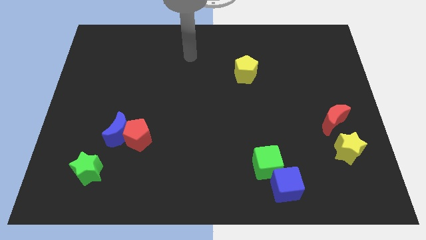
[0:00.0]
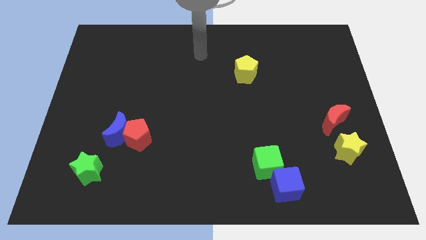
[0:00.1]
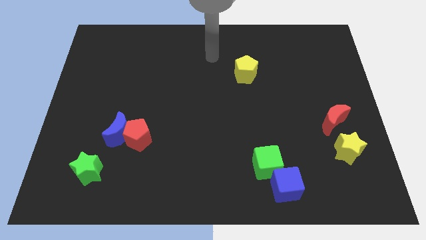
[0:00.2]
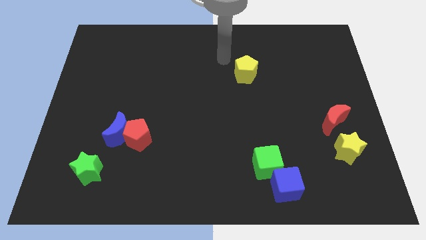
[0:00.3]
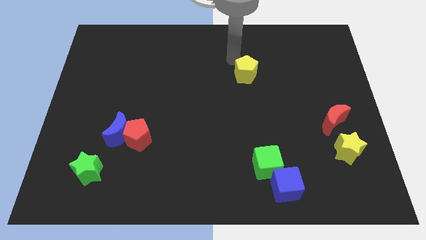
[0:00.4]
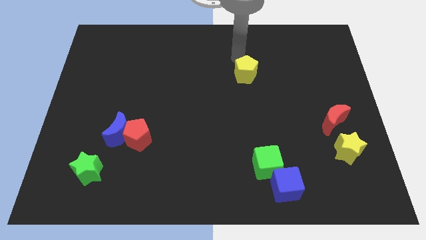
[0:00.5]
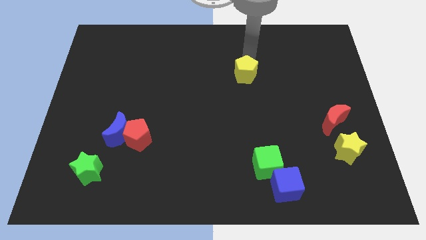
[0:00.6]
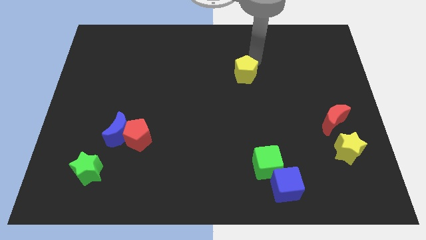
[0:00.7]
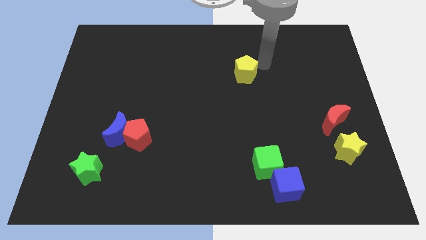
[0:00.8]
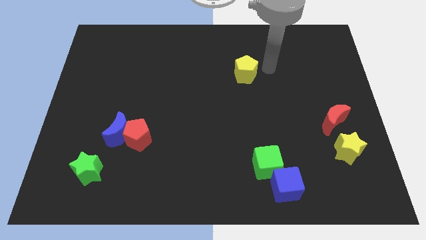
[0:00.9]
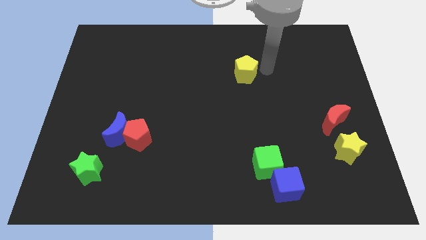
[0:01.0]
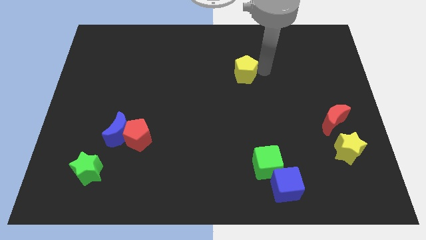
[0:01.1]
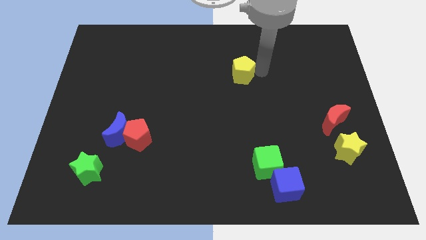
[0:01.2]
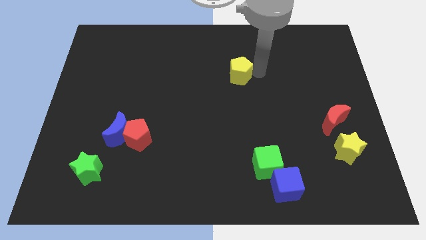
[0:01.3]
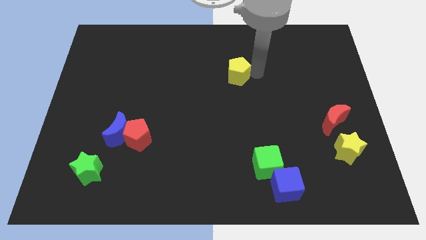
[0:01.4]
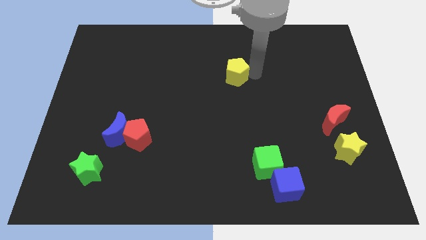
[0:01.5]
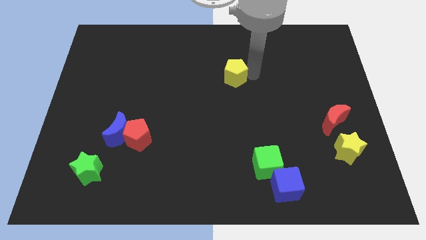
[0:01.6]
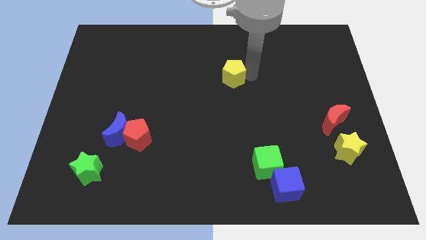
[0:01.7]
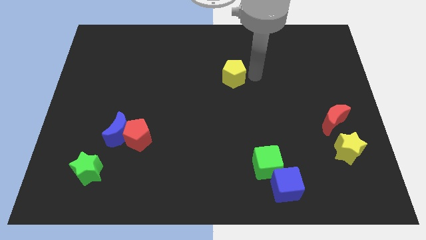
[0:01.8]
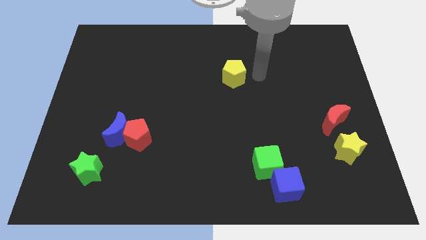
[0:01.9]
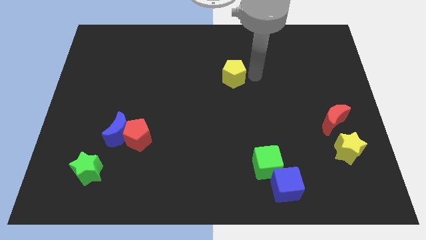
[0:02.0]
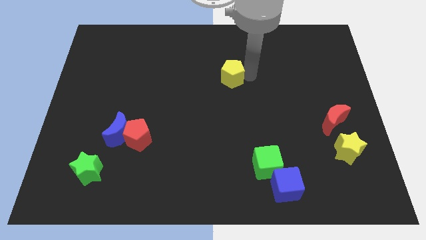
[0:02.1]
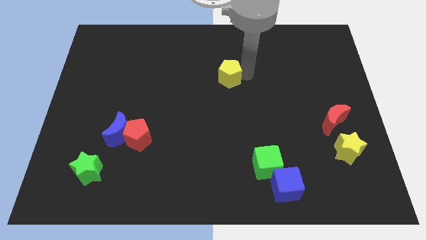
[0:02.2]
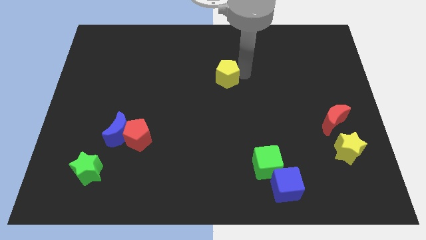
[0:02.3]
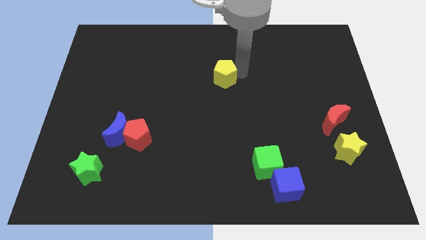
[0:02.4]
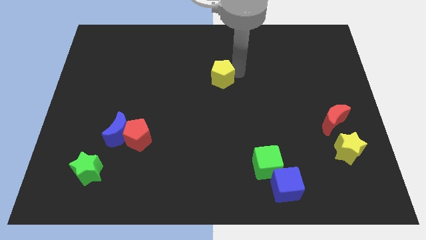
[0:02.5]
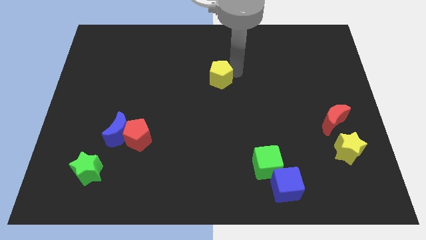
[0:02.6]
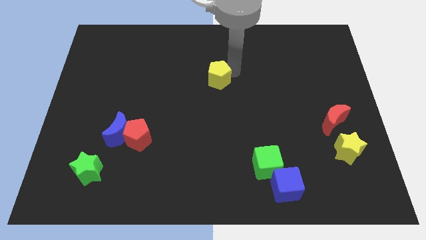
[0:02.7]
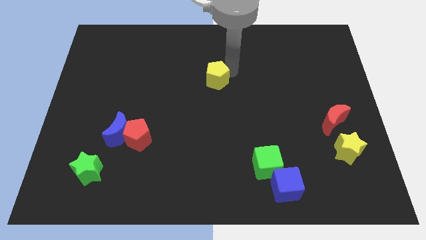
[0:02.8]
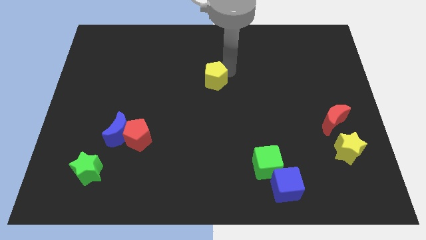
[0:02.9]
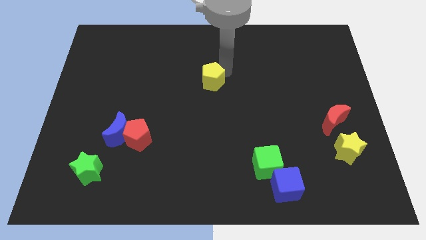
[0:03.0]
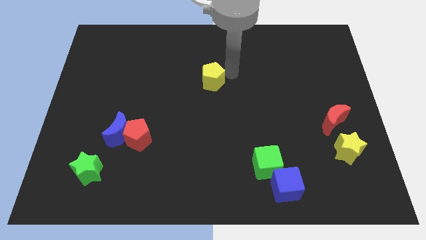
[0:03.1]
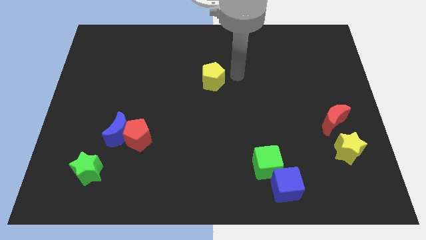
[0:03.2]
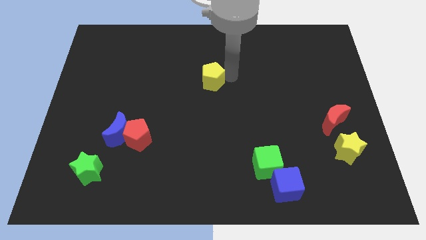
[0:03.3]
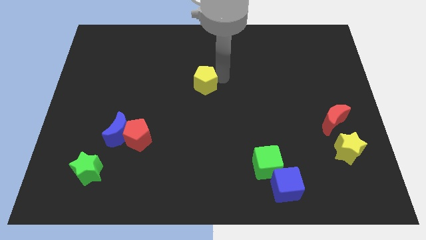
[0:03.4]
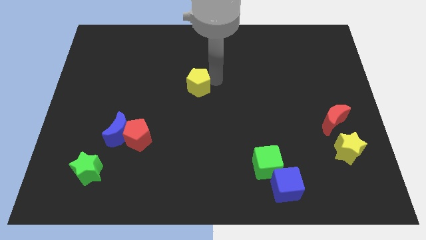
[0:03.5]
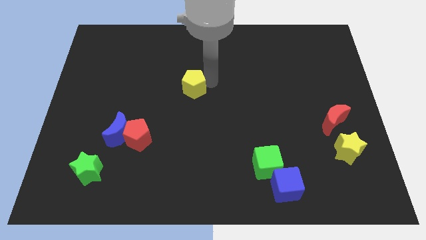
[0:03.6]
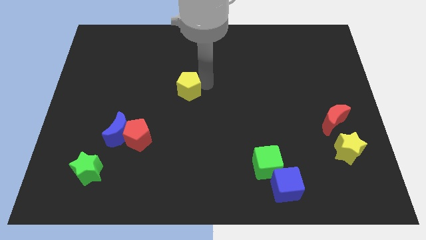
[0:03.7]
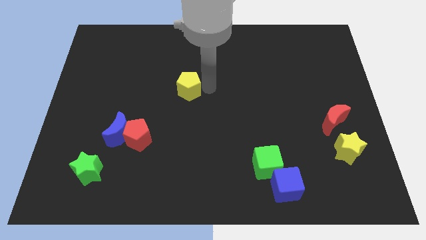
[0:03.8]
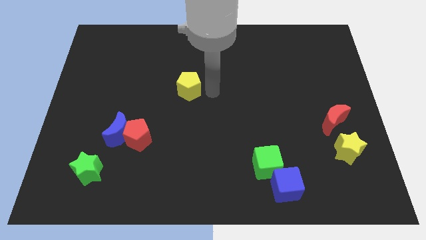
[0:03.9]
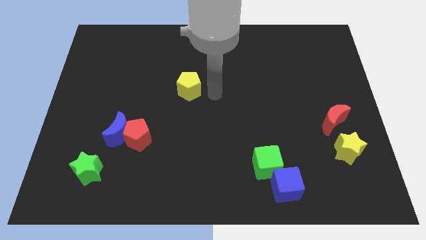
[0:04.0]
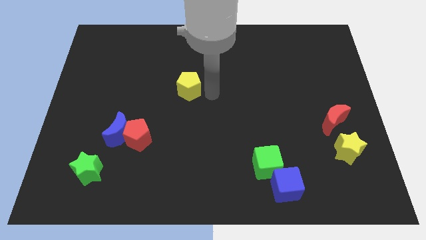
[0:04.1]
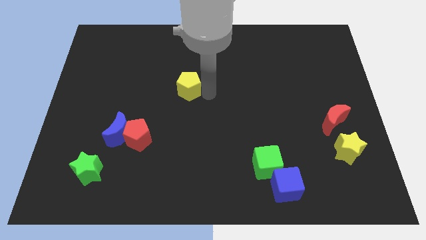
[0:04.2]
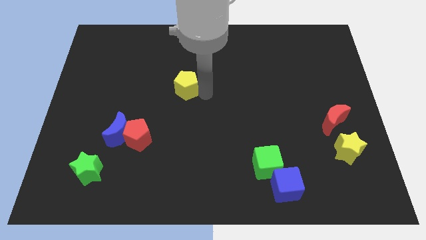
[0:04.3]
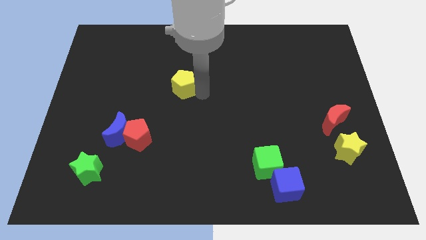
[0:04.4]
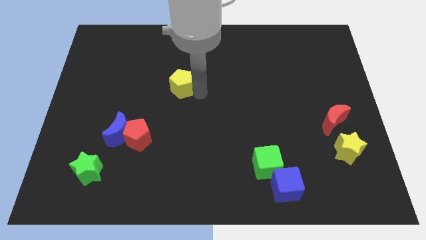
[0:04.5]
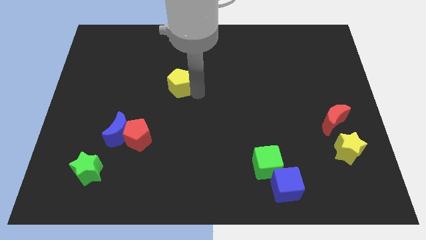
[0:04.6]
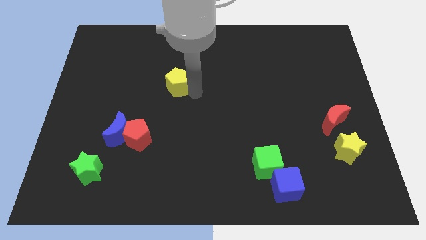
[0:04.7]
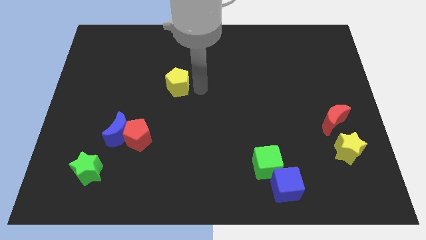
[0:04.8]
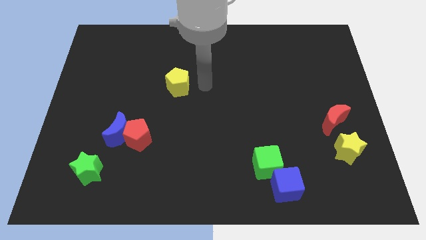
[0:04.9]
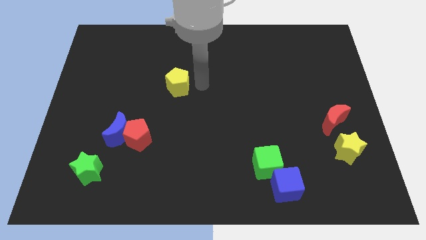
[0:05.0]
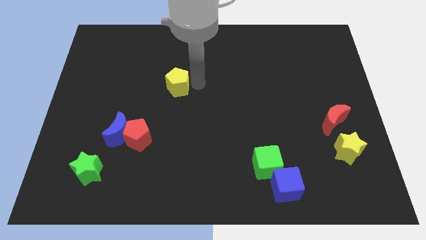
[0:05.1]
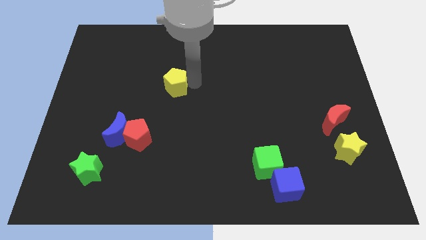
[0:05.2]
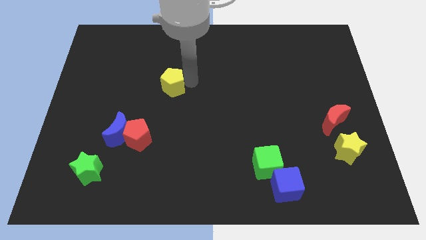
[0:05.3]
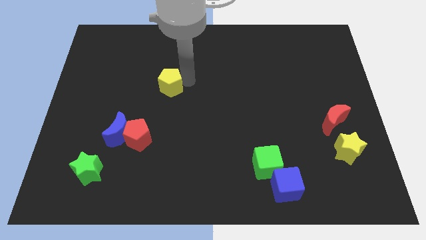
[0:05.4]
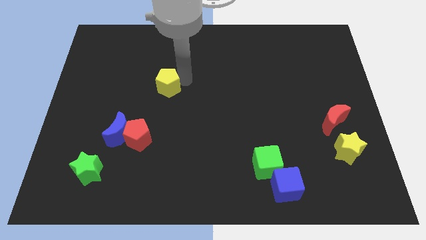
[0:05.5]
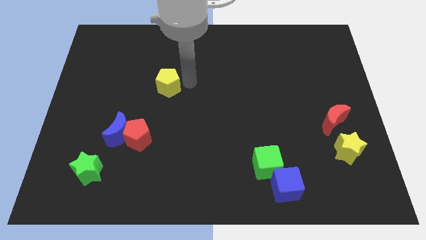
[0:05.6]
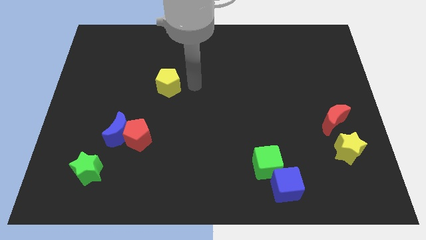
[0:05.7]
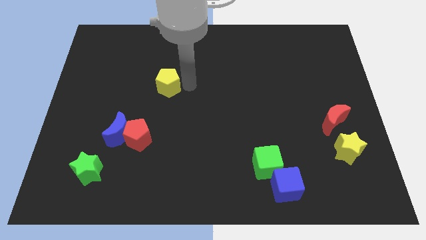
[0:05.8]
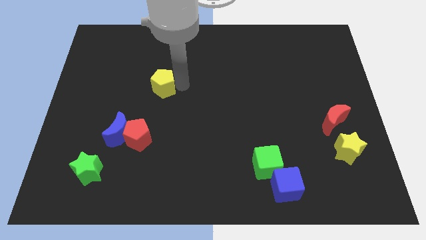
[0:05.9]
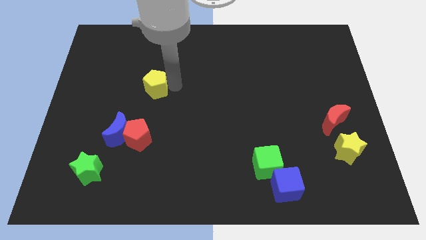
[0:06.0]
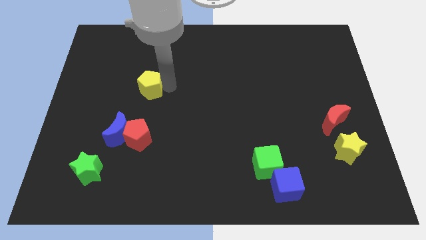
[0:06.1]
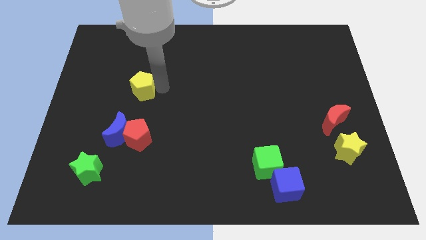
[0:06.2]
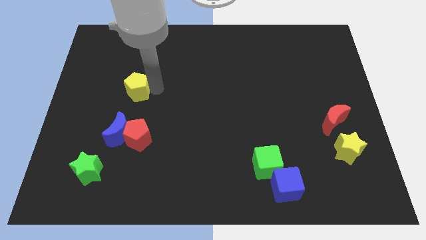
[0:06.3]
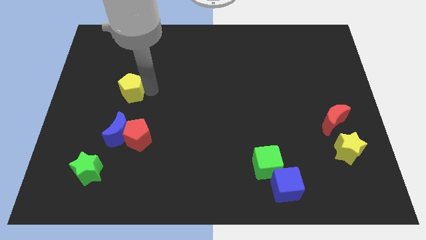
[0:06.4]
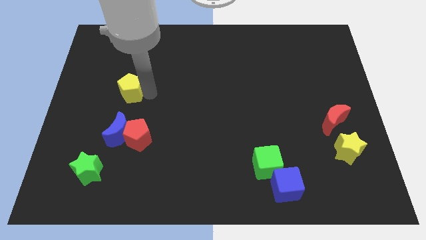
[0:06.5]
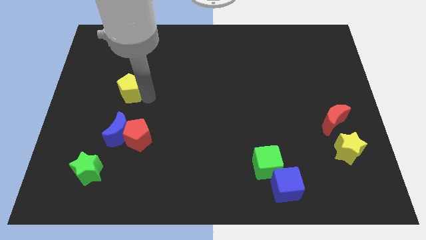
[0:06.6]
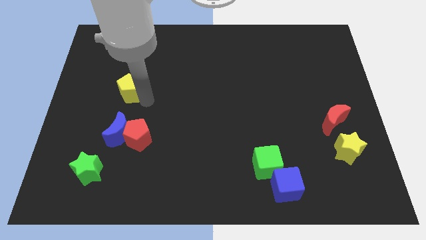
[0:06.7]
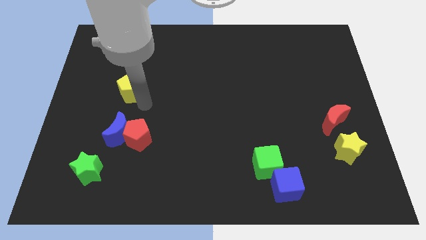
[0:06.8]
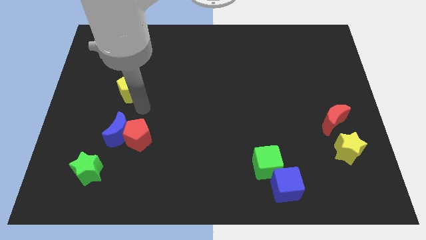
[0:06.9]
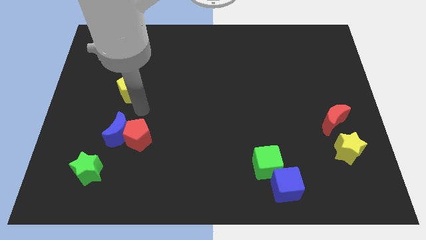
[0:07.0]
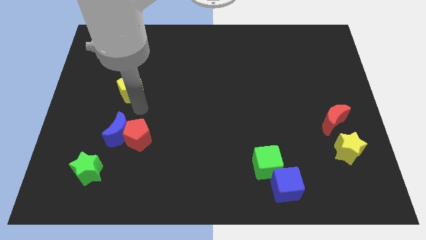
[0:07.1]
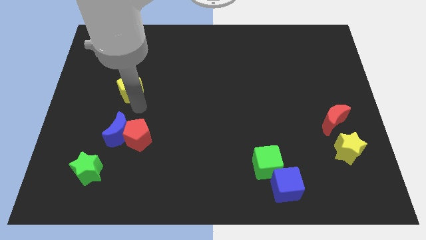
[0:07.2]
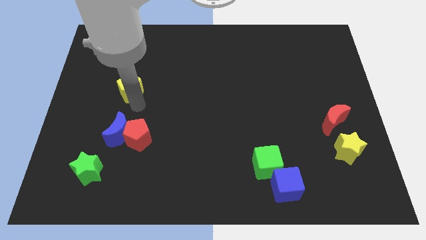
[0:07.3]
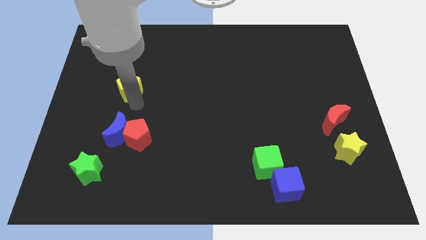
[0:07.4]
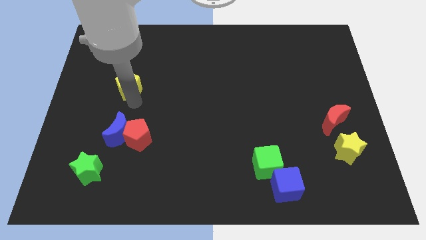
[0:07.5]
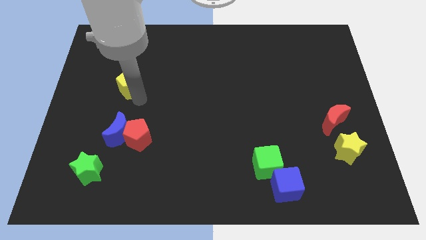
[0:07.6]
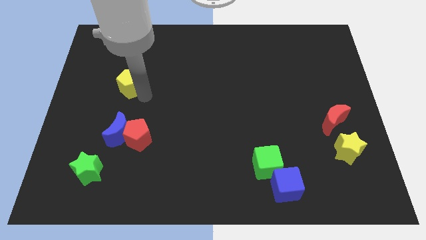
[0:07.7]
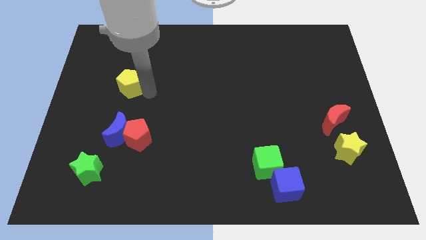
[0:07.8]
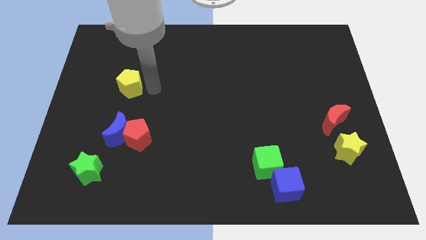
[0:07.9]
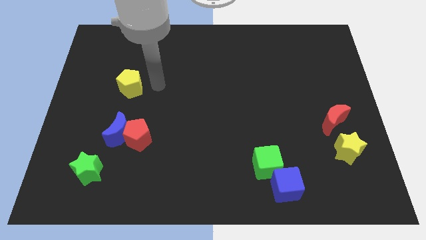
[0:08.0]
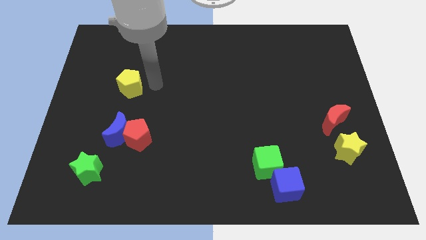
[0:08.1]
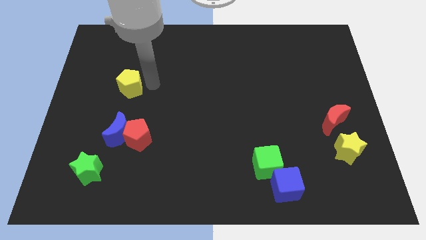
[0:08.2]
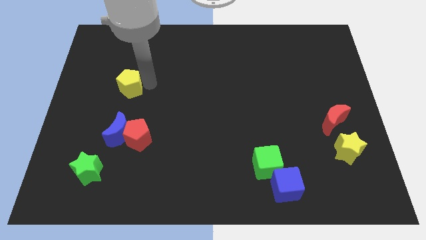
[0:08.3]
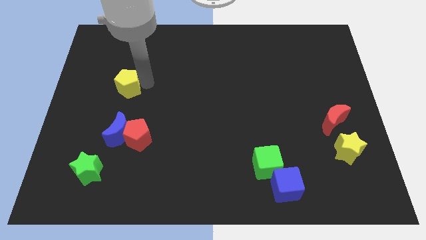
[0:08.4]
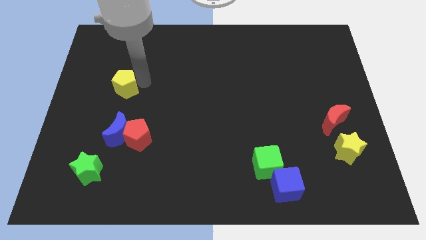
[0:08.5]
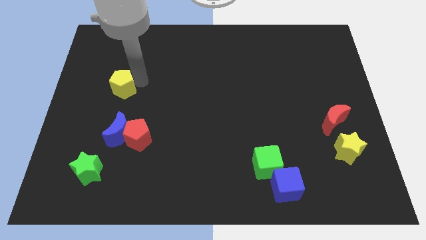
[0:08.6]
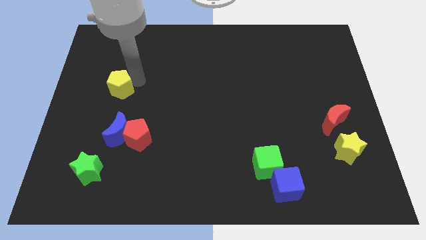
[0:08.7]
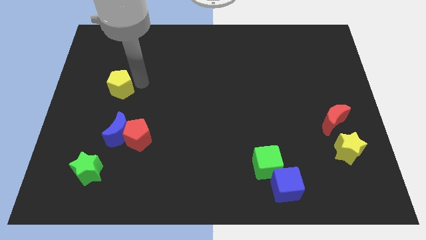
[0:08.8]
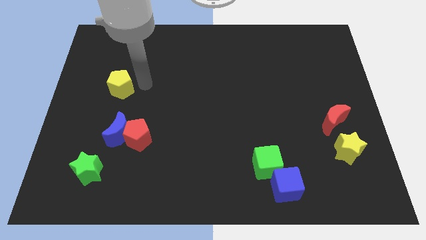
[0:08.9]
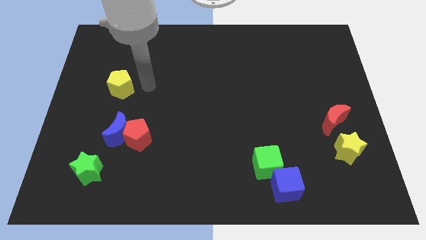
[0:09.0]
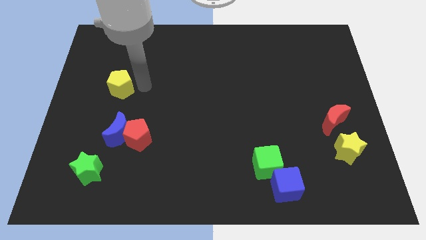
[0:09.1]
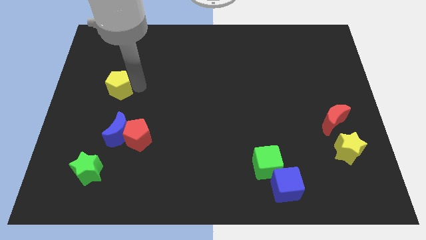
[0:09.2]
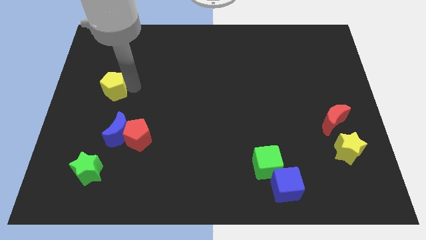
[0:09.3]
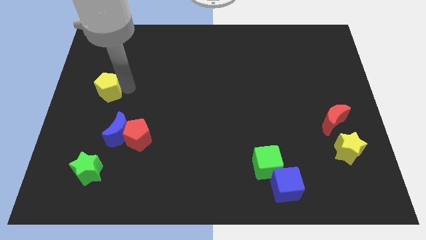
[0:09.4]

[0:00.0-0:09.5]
push the yellow pentagon to the center left
